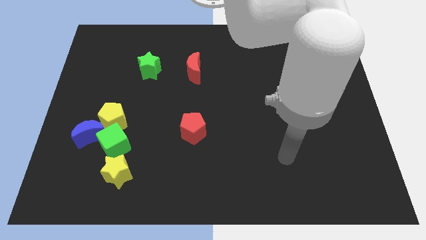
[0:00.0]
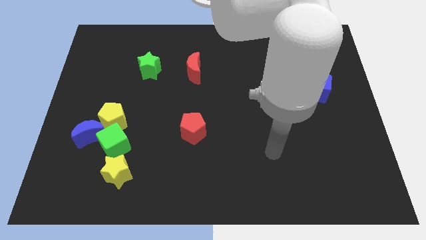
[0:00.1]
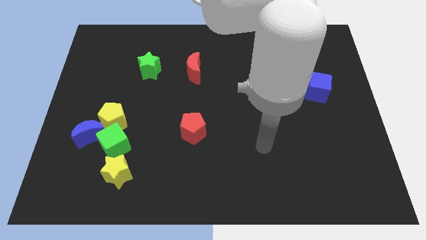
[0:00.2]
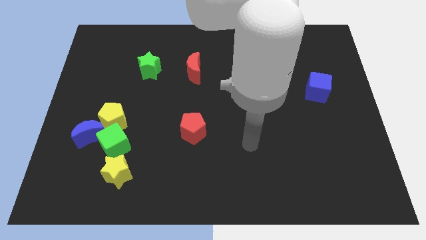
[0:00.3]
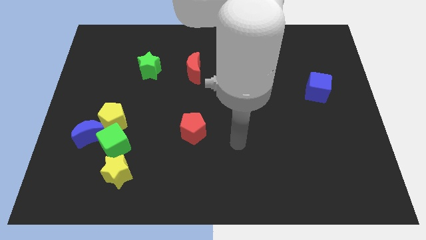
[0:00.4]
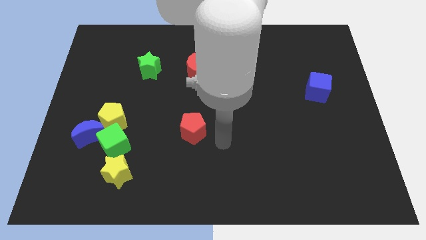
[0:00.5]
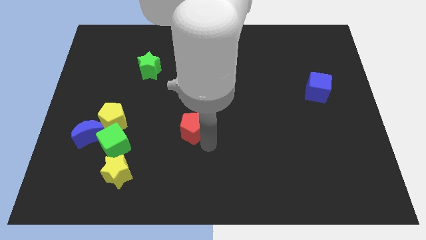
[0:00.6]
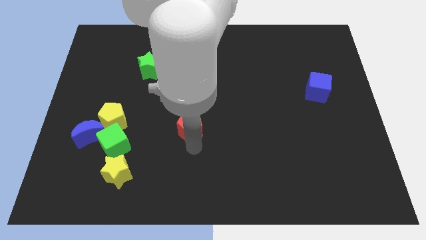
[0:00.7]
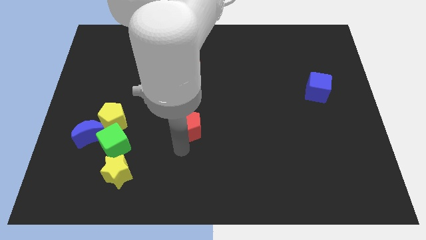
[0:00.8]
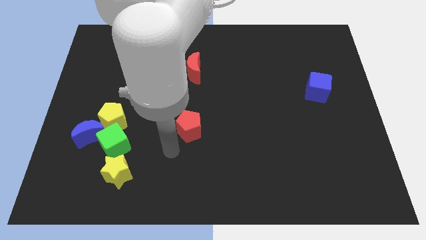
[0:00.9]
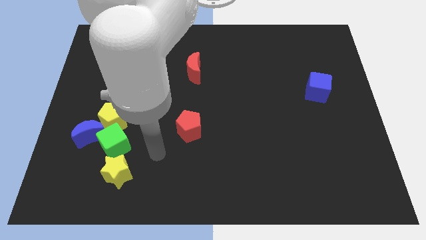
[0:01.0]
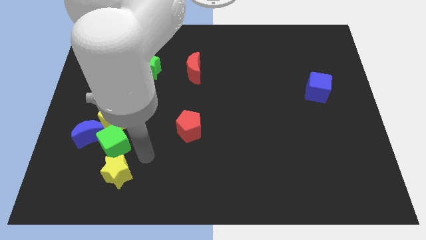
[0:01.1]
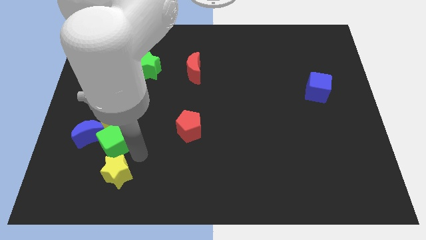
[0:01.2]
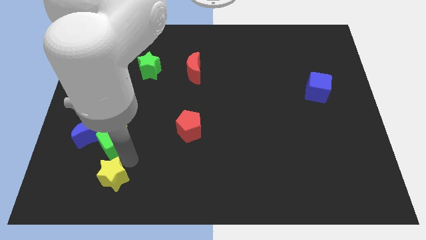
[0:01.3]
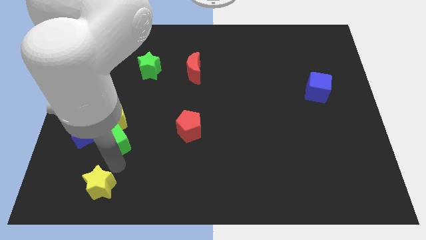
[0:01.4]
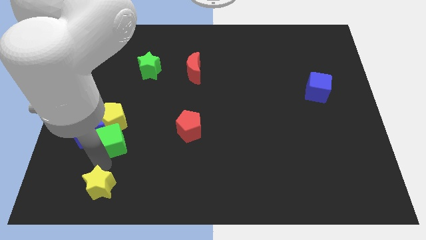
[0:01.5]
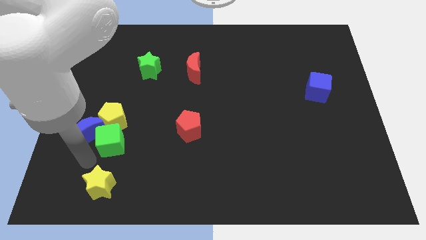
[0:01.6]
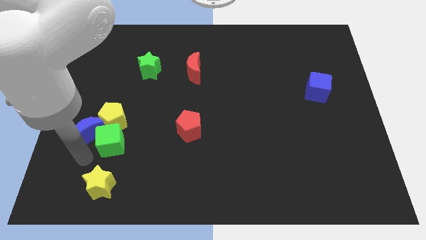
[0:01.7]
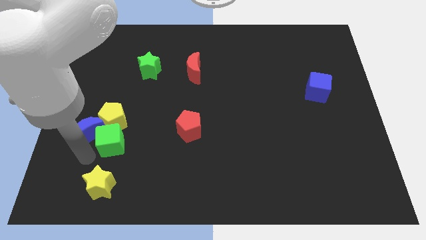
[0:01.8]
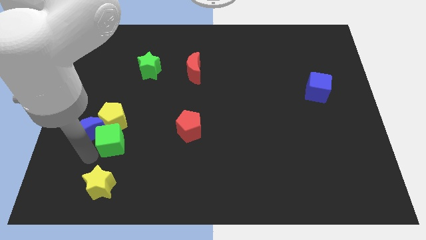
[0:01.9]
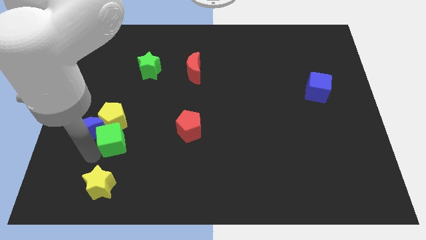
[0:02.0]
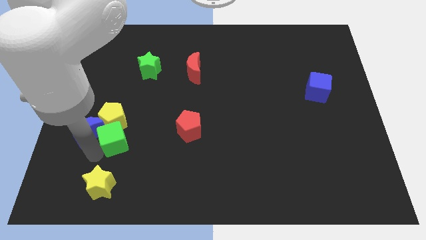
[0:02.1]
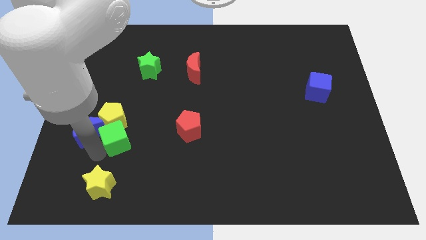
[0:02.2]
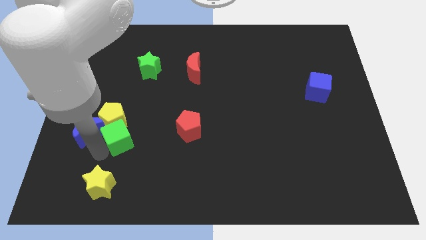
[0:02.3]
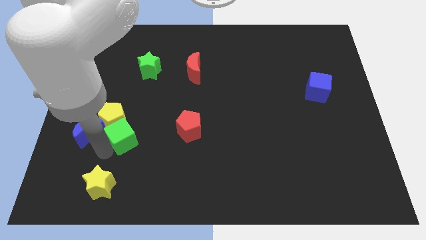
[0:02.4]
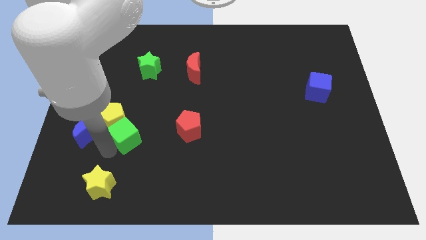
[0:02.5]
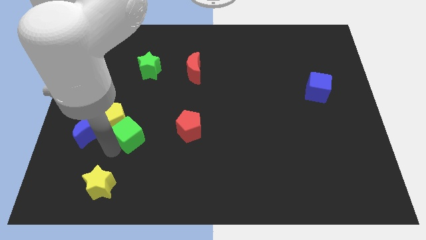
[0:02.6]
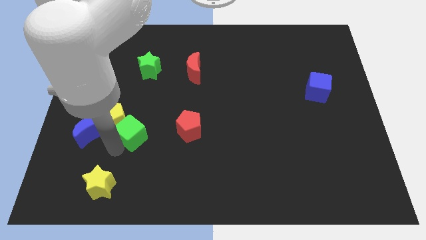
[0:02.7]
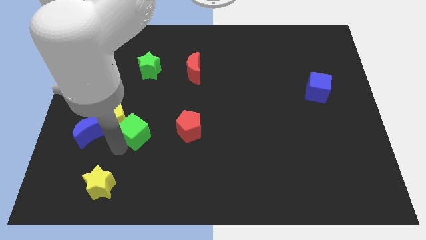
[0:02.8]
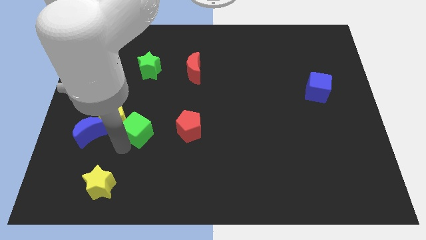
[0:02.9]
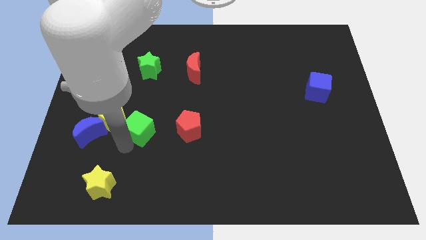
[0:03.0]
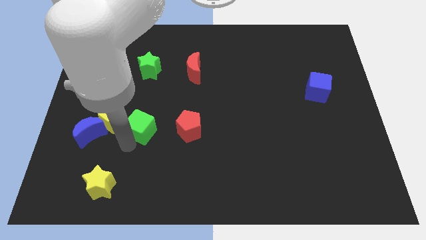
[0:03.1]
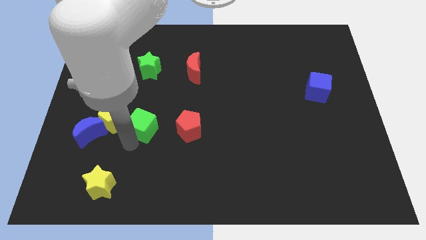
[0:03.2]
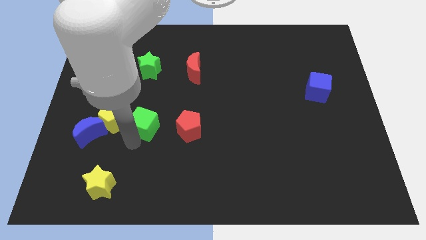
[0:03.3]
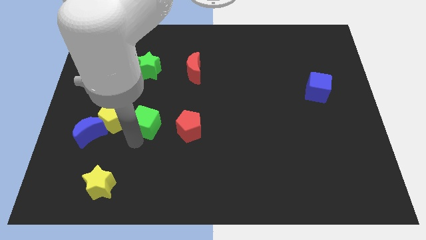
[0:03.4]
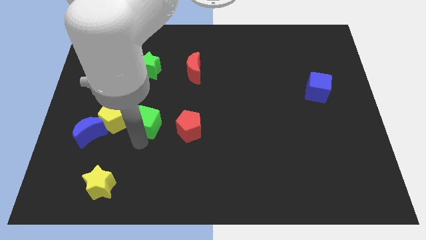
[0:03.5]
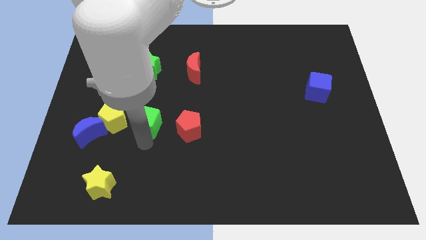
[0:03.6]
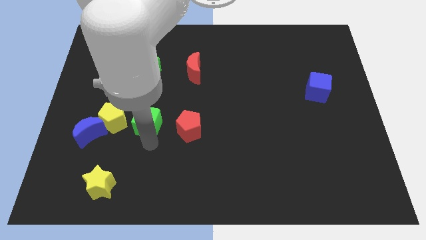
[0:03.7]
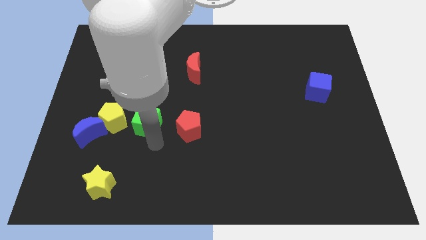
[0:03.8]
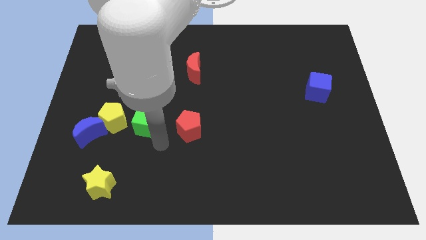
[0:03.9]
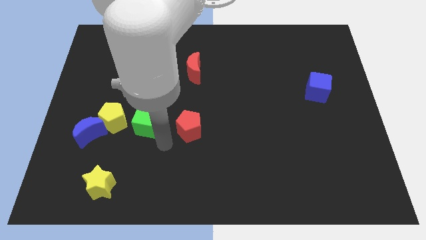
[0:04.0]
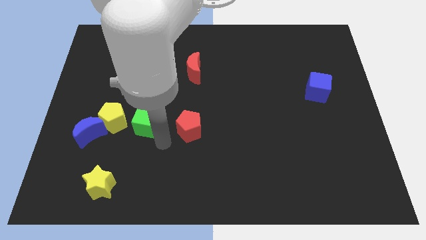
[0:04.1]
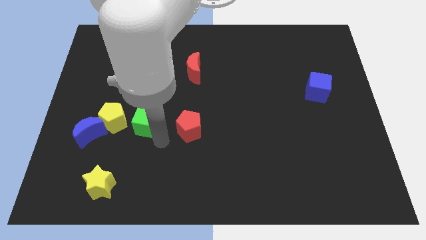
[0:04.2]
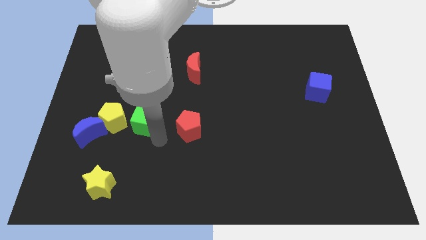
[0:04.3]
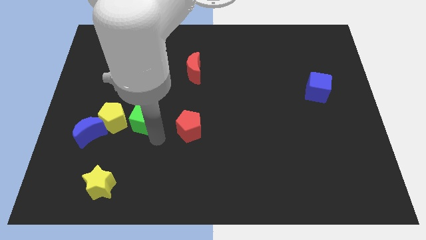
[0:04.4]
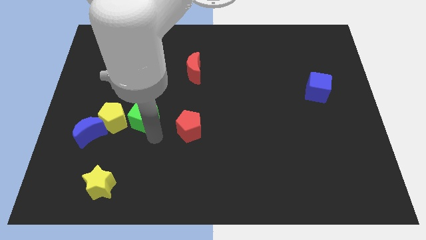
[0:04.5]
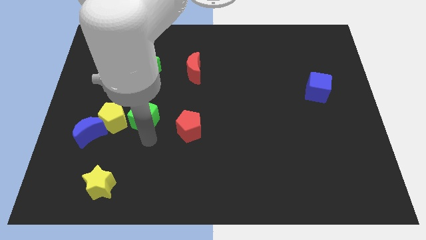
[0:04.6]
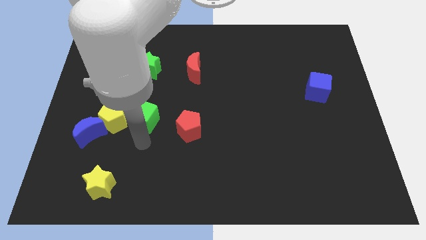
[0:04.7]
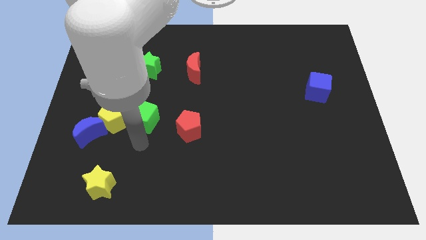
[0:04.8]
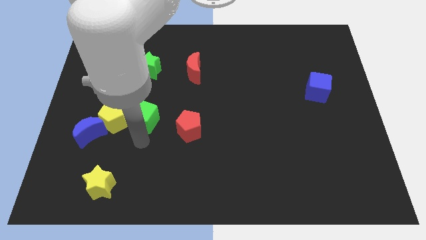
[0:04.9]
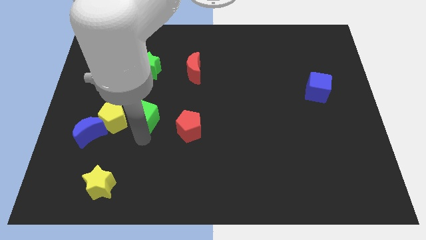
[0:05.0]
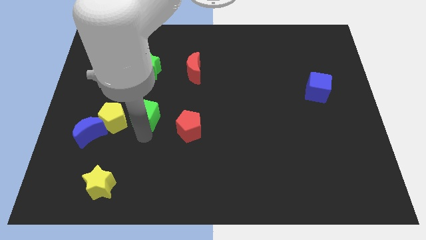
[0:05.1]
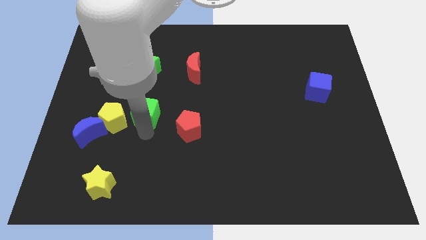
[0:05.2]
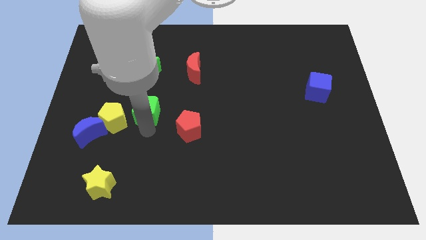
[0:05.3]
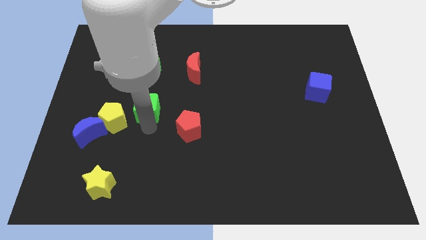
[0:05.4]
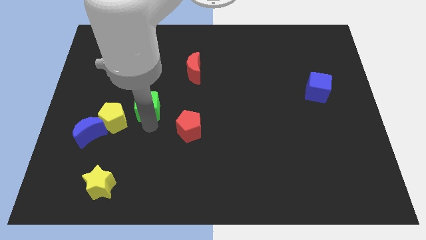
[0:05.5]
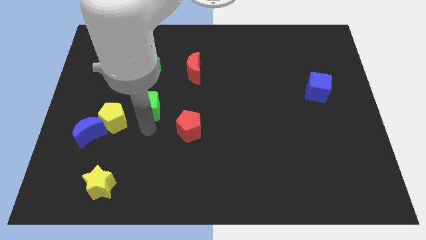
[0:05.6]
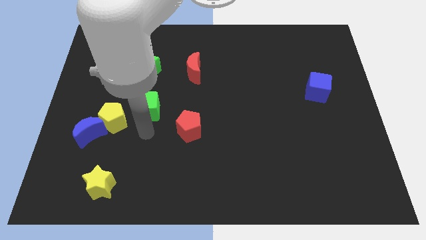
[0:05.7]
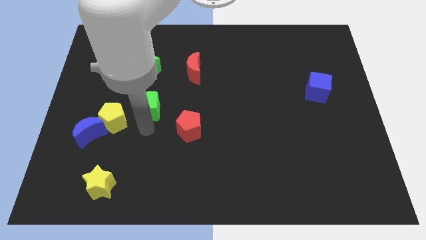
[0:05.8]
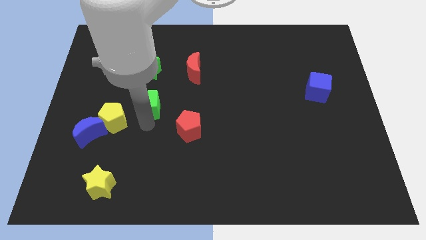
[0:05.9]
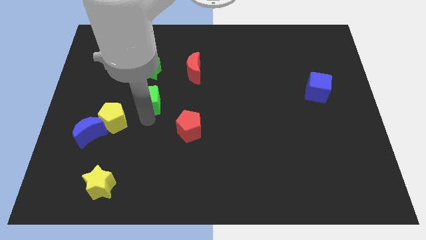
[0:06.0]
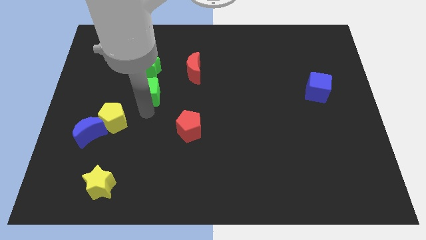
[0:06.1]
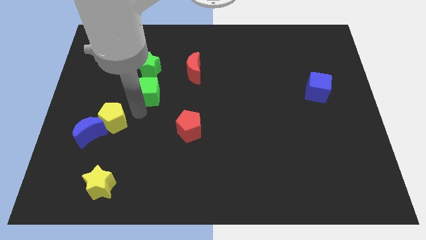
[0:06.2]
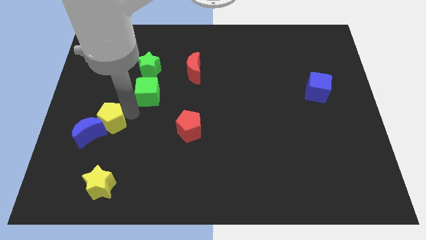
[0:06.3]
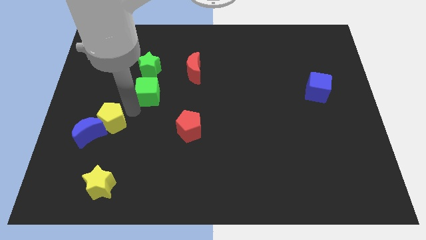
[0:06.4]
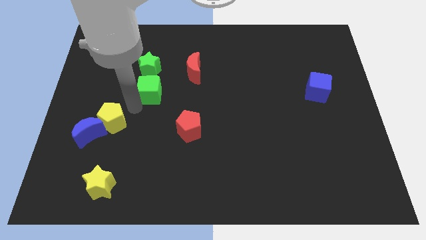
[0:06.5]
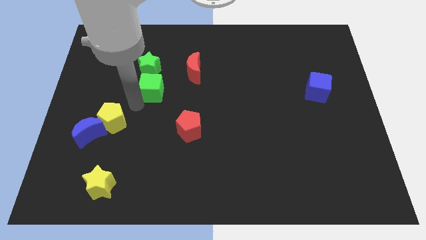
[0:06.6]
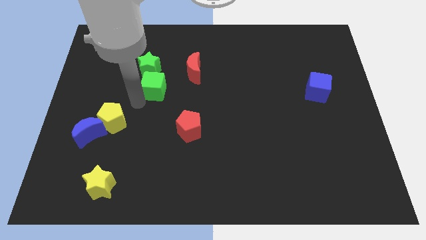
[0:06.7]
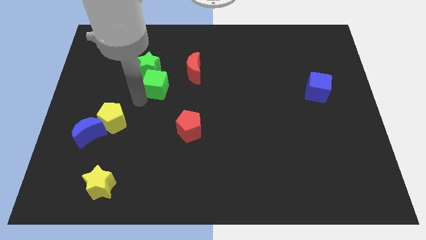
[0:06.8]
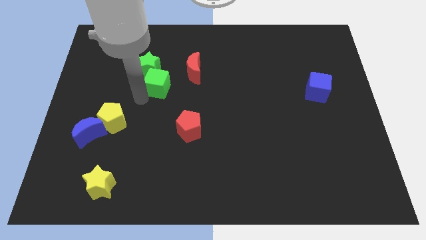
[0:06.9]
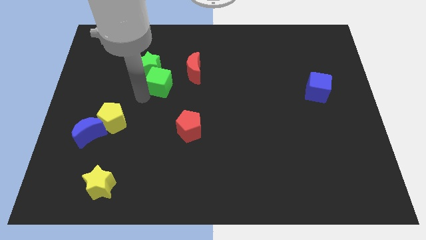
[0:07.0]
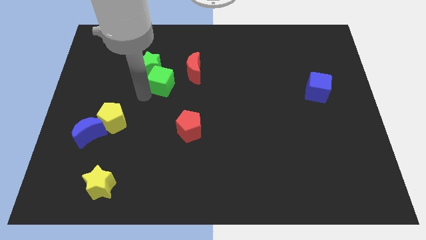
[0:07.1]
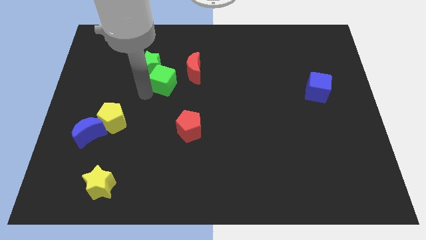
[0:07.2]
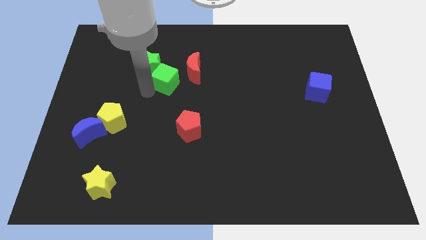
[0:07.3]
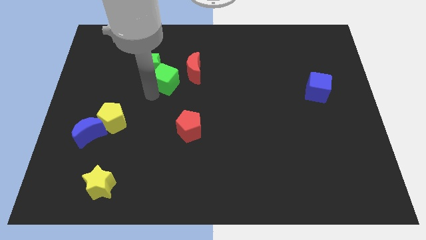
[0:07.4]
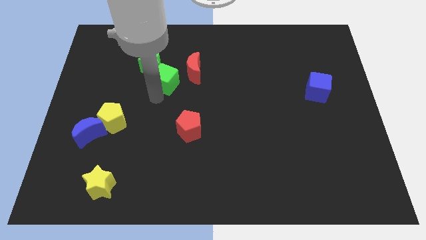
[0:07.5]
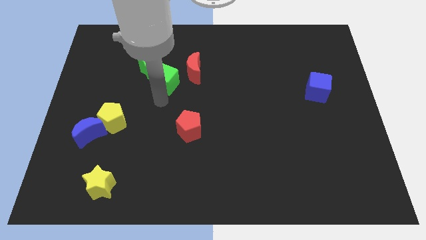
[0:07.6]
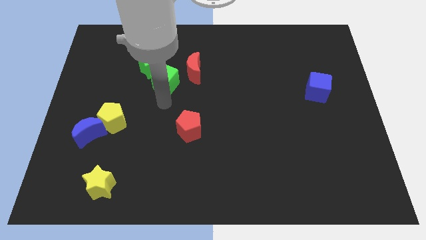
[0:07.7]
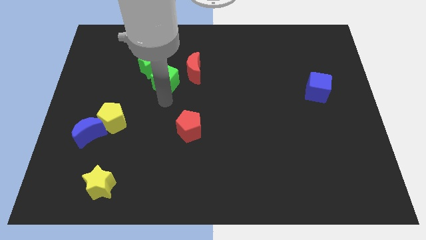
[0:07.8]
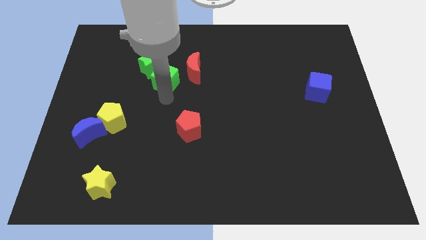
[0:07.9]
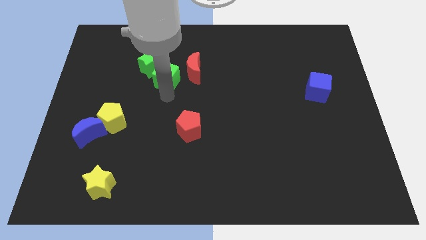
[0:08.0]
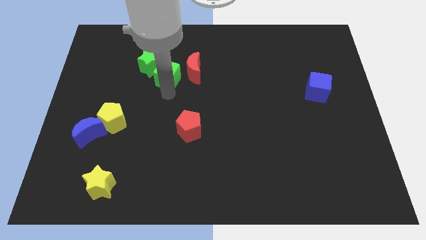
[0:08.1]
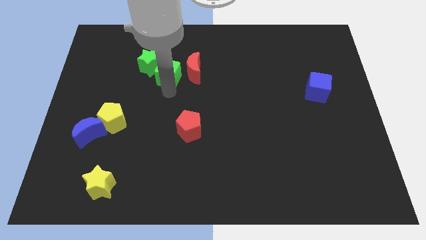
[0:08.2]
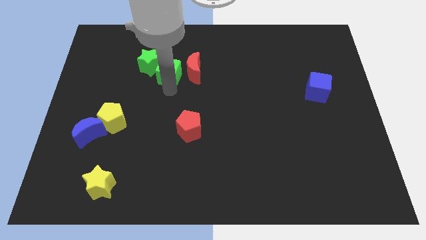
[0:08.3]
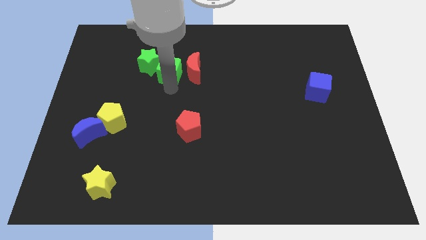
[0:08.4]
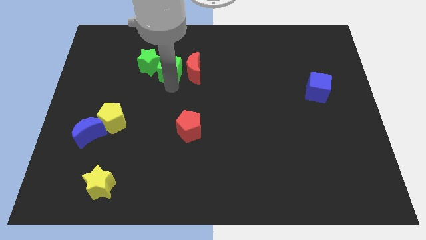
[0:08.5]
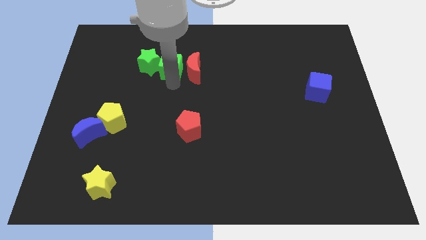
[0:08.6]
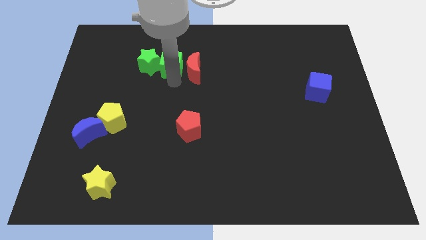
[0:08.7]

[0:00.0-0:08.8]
move the green cube to the top right side of the green star
